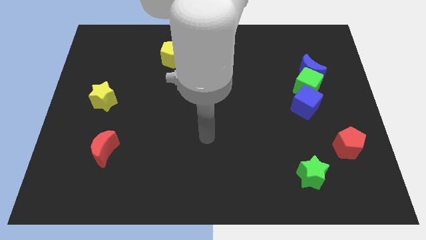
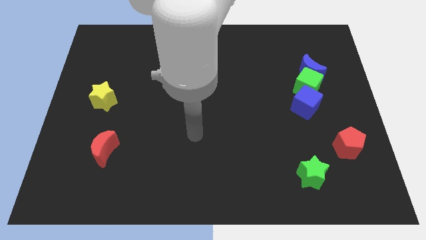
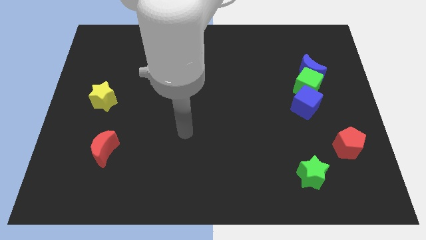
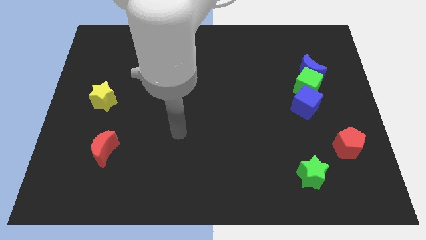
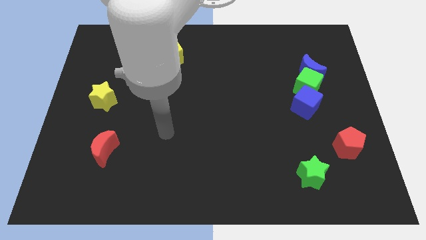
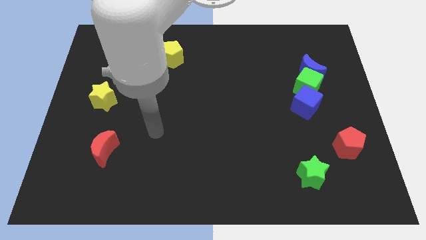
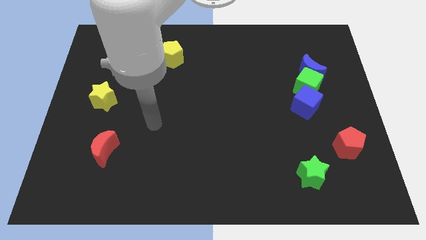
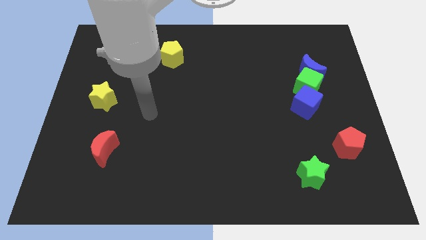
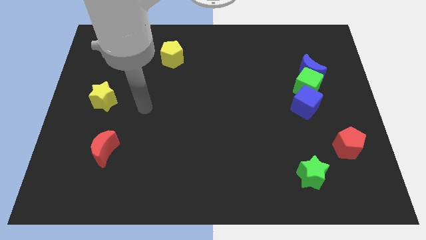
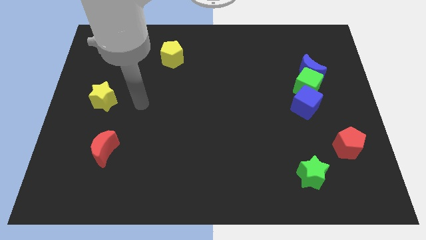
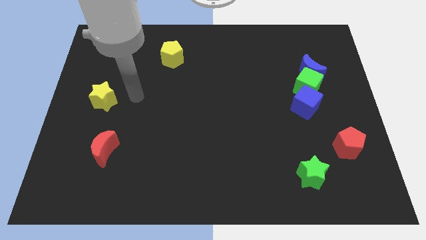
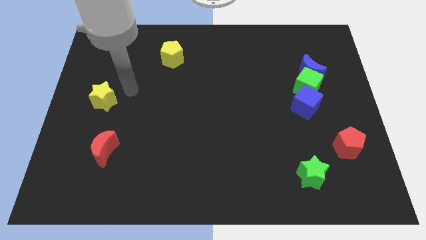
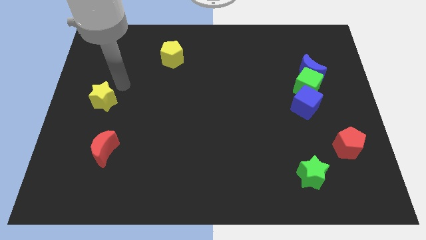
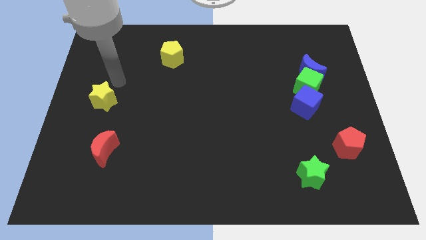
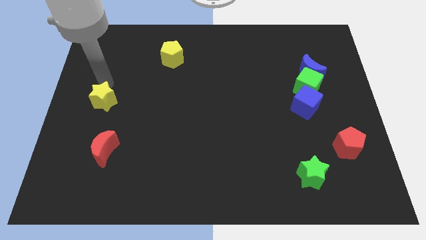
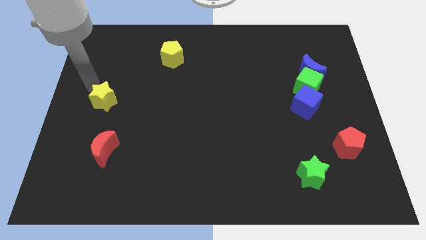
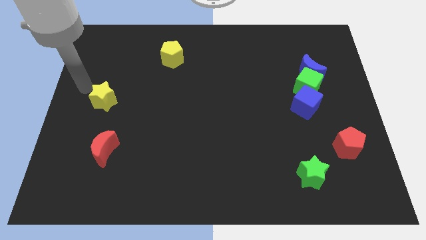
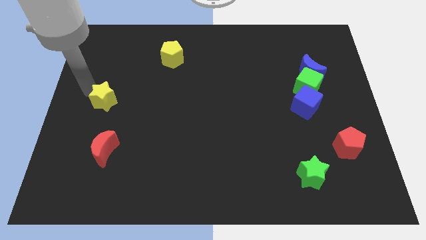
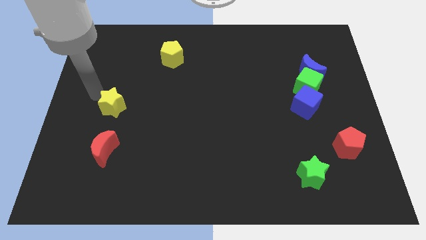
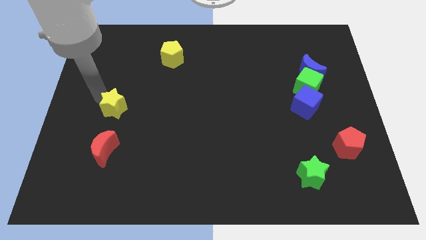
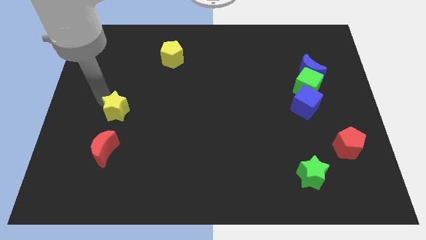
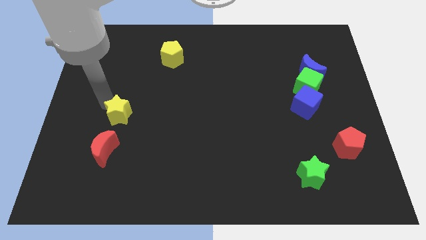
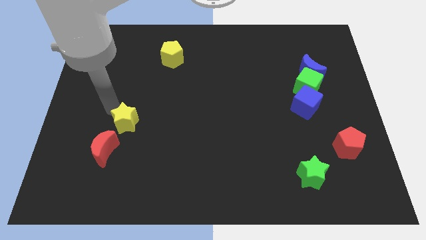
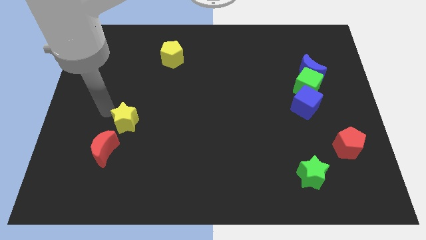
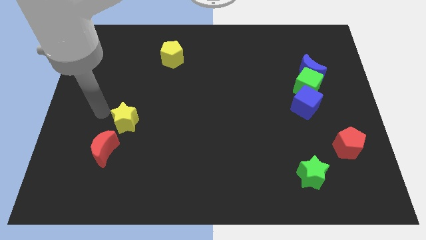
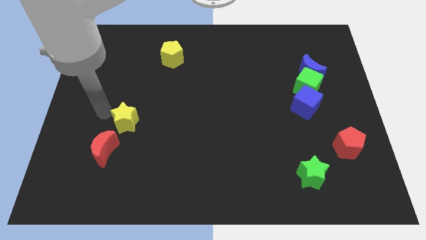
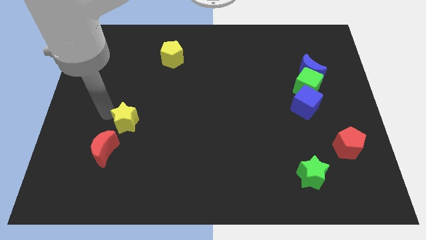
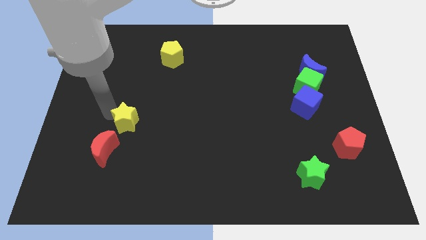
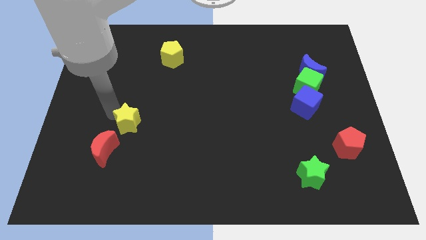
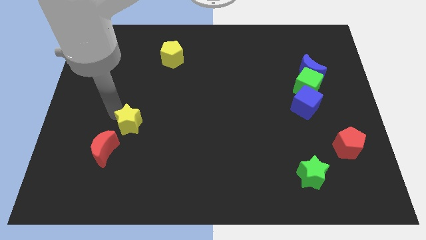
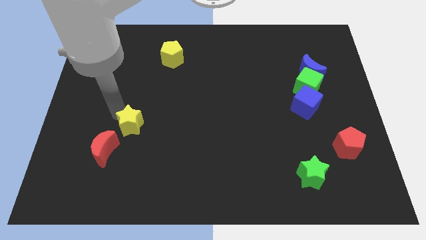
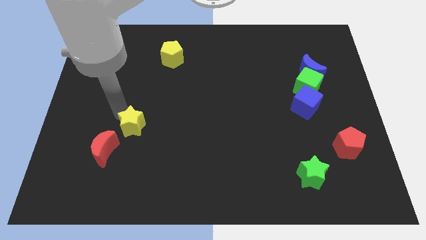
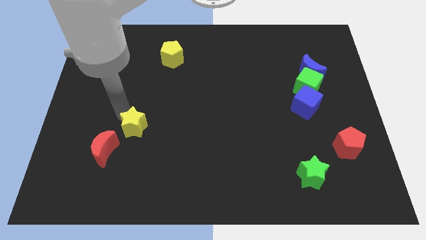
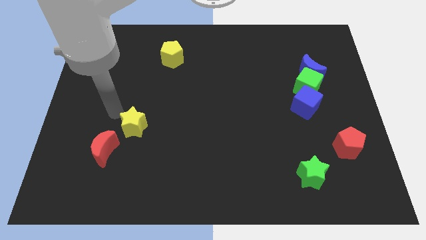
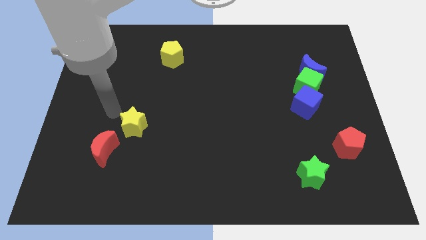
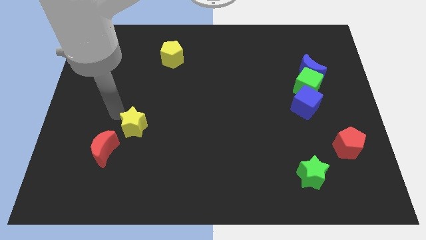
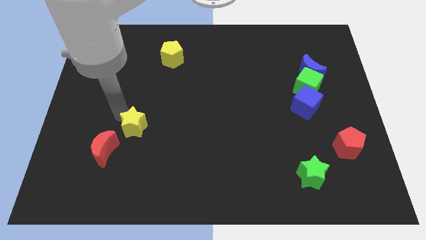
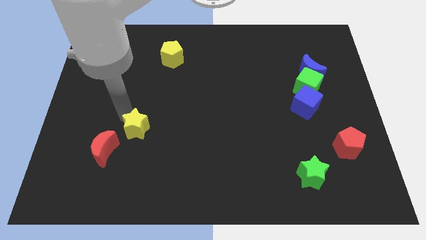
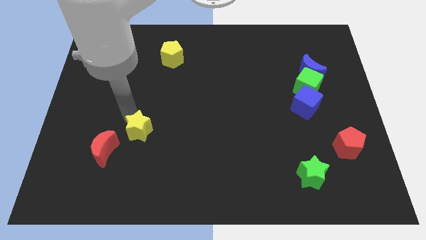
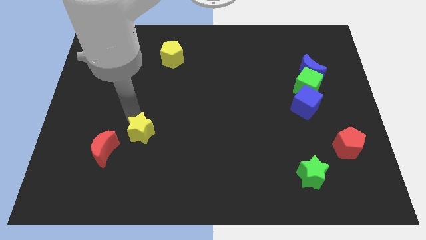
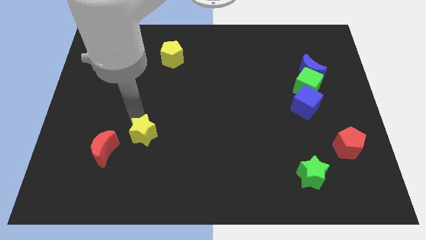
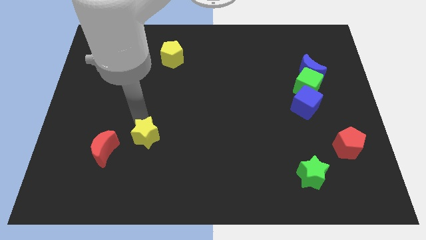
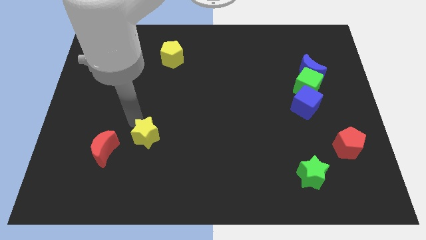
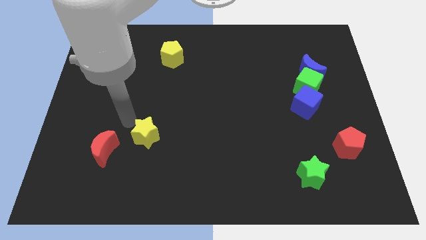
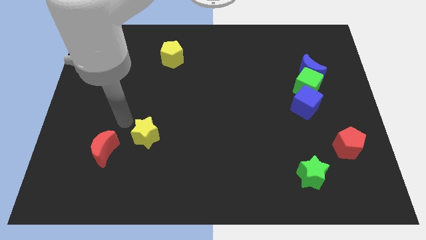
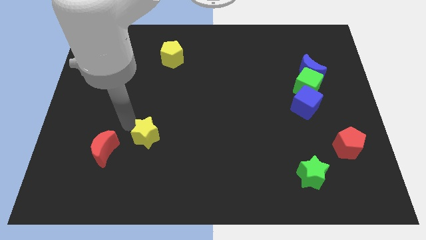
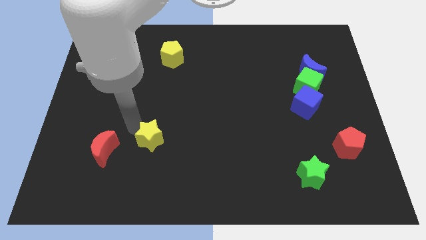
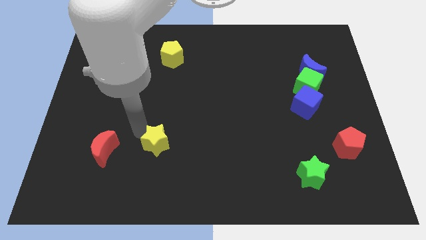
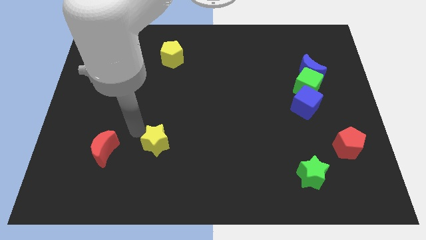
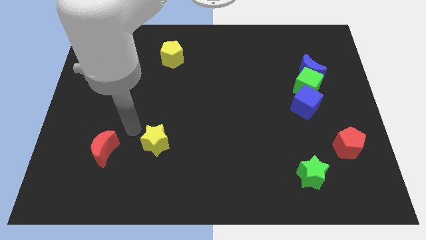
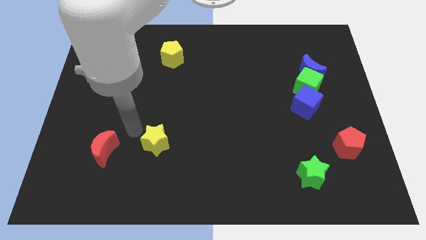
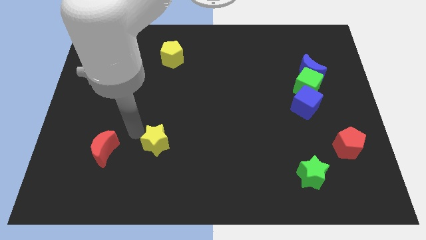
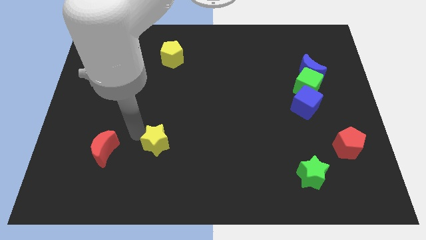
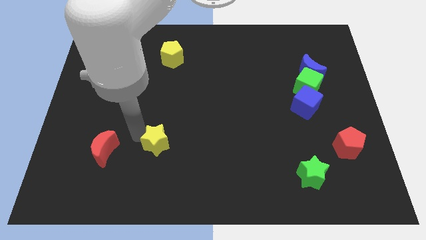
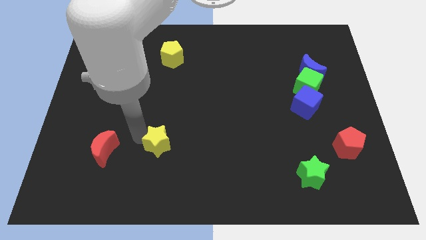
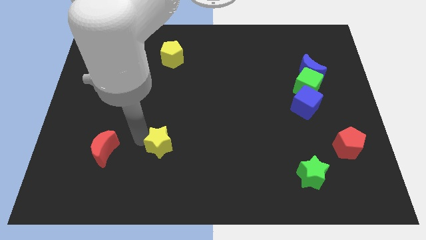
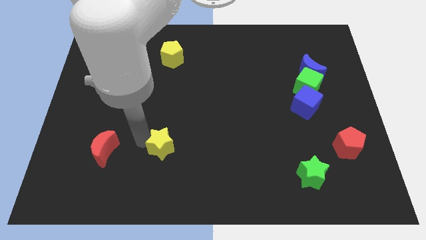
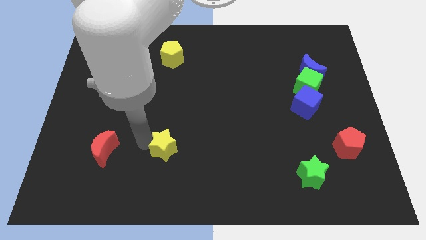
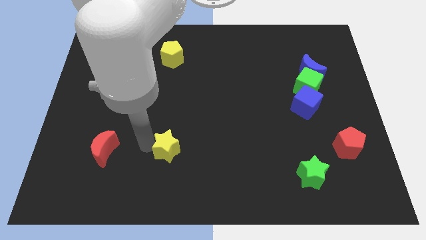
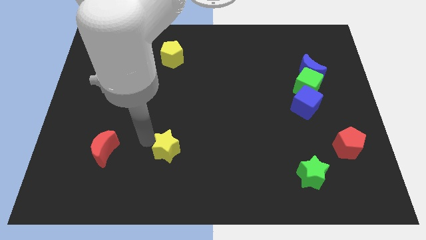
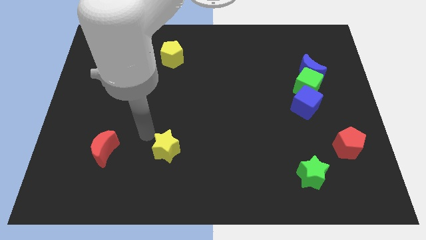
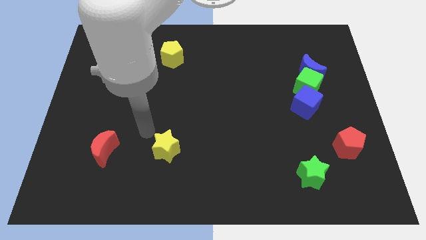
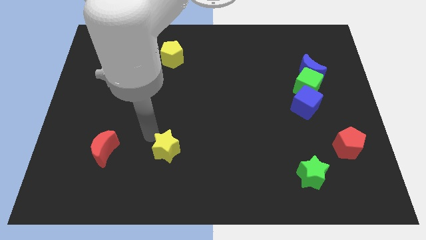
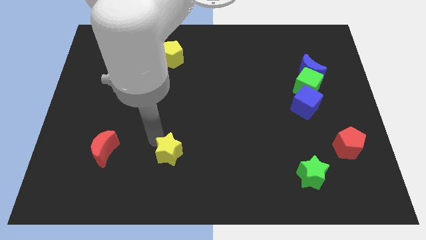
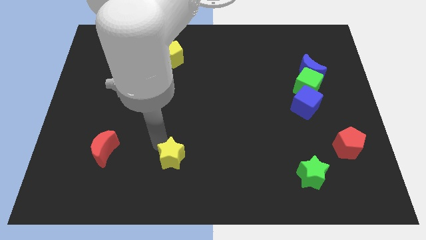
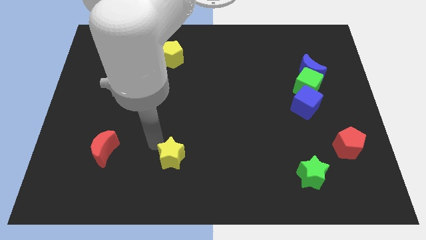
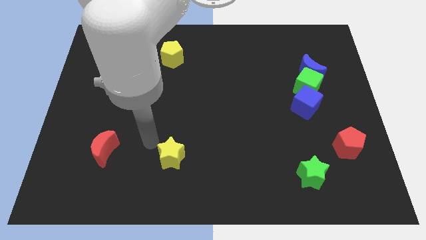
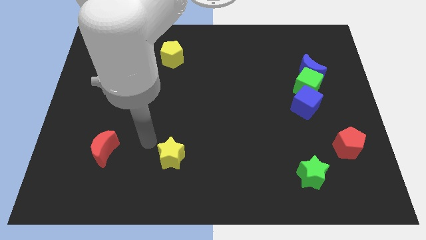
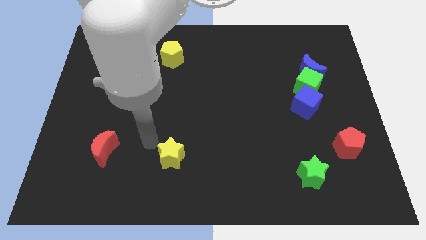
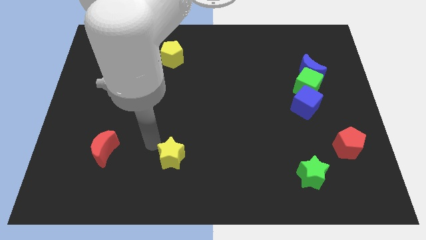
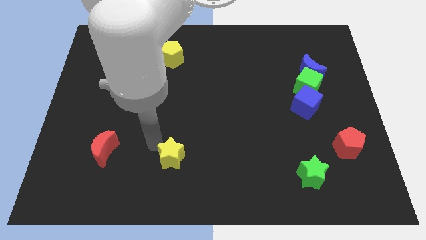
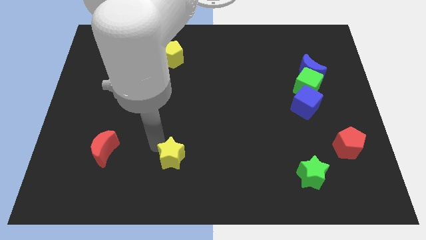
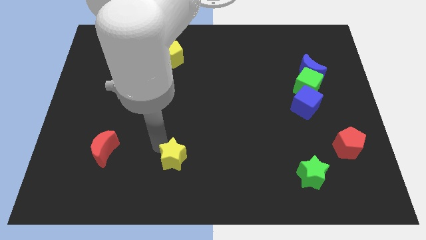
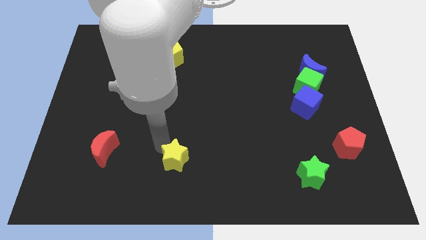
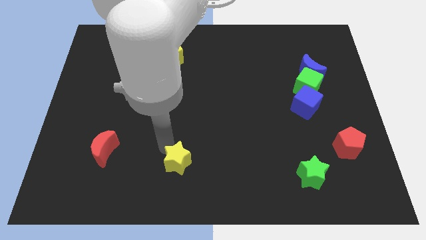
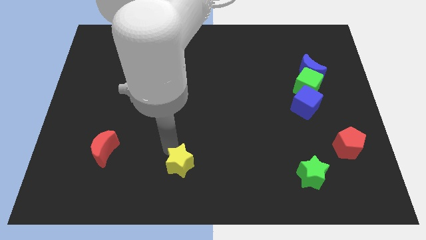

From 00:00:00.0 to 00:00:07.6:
move the yellow star to the bottom side
